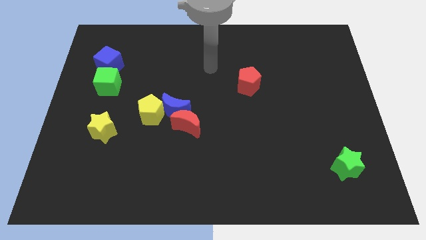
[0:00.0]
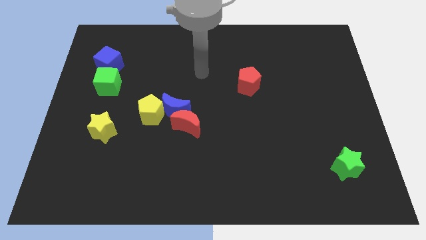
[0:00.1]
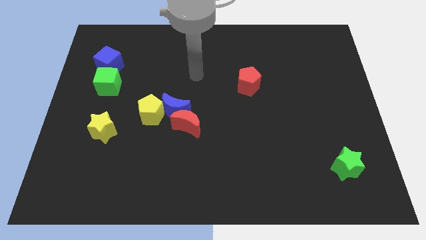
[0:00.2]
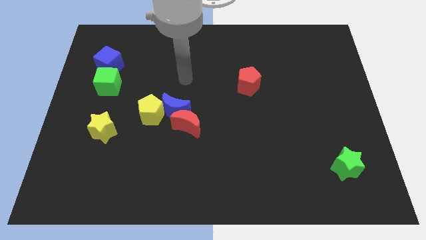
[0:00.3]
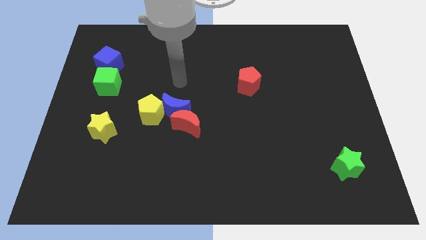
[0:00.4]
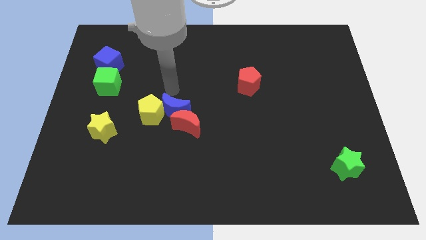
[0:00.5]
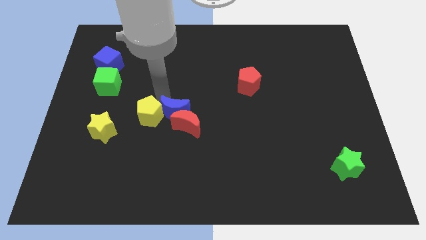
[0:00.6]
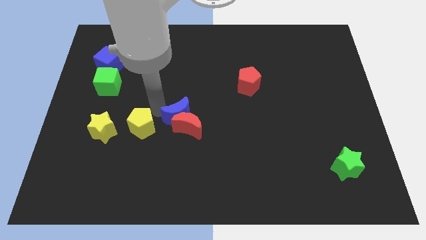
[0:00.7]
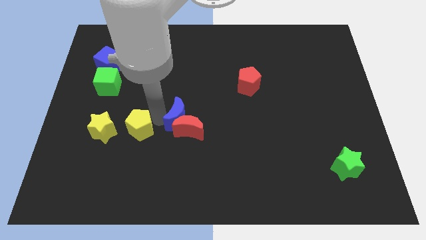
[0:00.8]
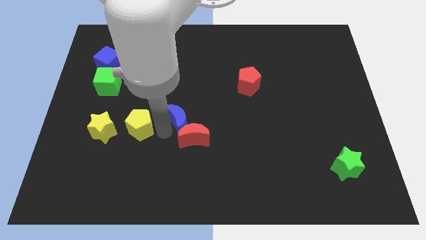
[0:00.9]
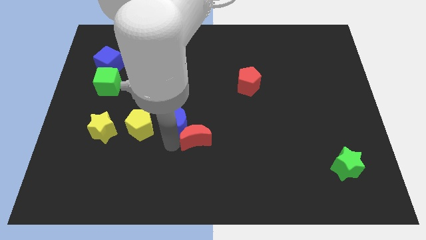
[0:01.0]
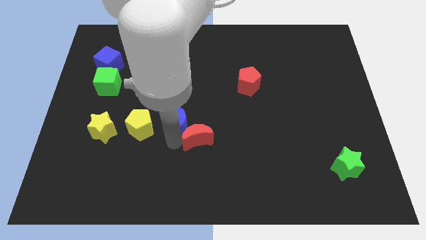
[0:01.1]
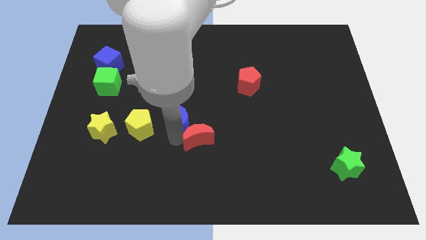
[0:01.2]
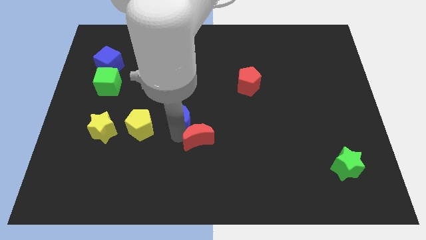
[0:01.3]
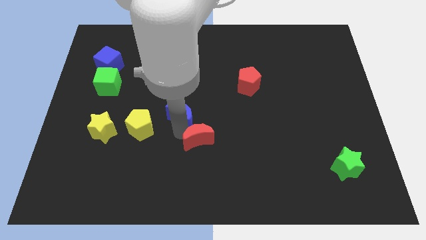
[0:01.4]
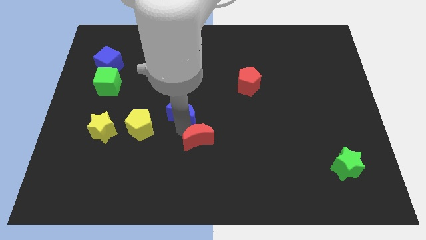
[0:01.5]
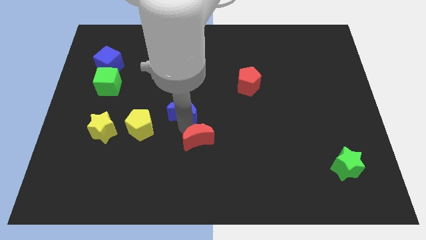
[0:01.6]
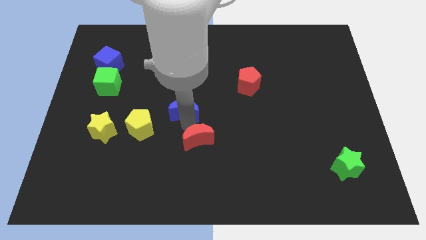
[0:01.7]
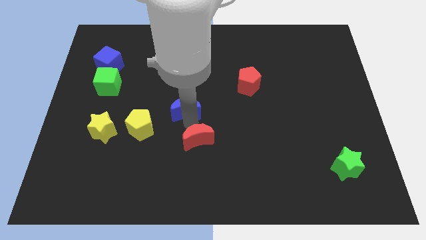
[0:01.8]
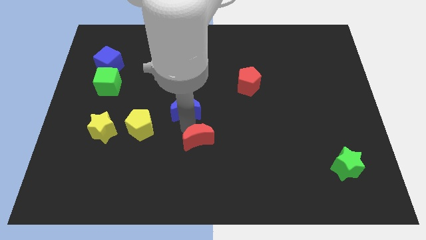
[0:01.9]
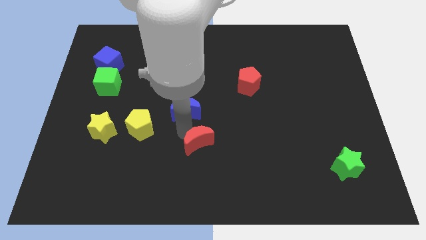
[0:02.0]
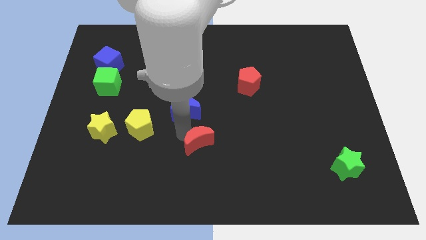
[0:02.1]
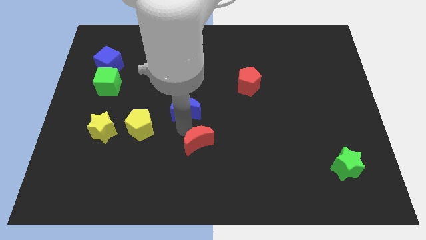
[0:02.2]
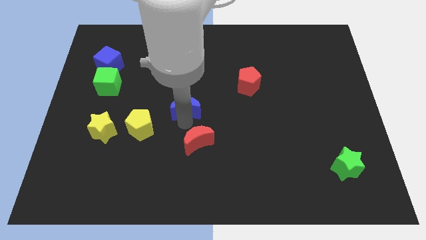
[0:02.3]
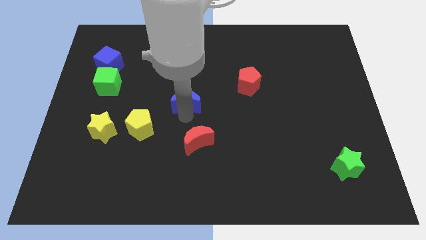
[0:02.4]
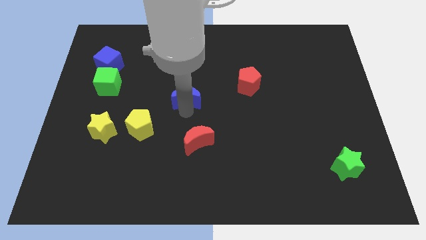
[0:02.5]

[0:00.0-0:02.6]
separate the blue moon from the red moon and yellow pentagon

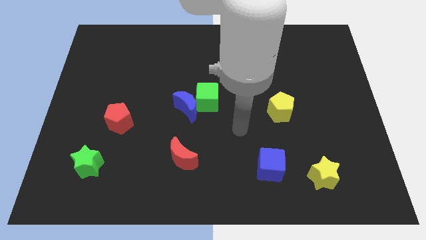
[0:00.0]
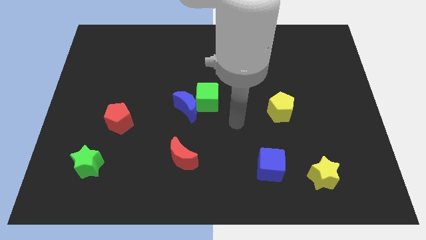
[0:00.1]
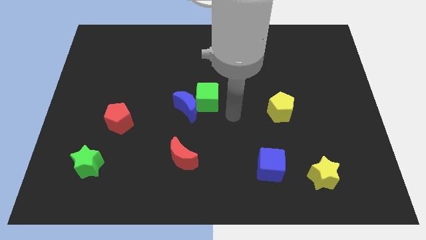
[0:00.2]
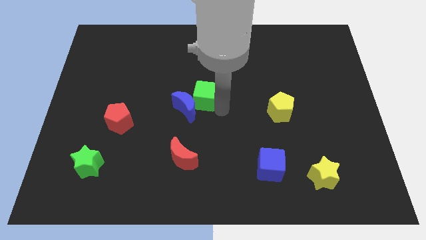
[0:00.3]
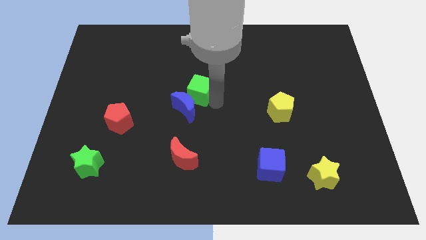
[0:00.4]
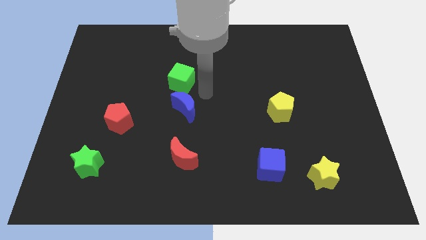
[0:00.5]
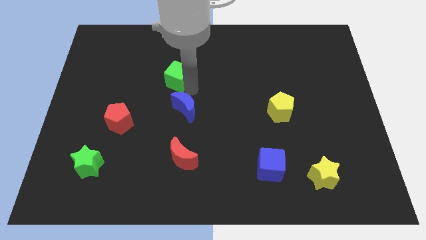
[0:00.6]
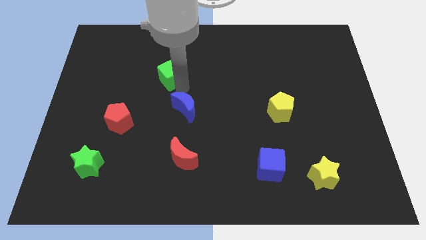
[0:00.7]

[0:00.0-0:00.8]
separate the blue moon from the green cube

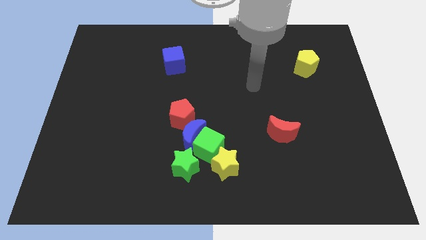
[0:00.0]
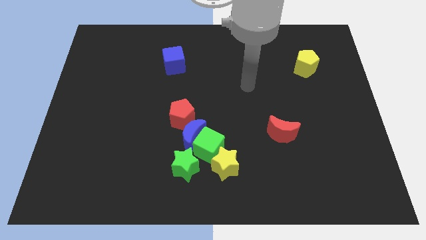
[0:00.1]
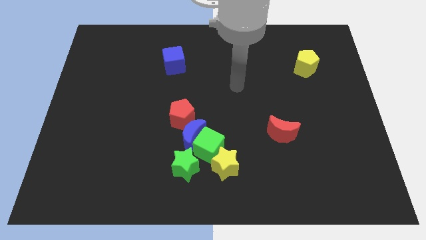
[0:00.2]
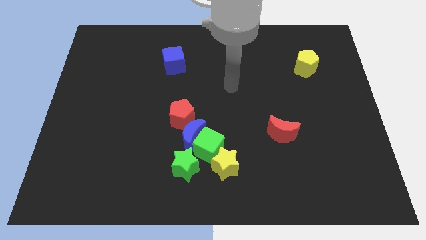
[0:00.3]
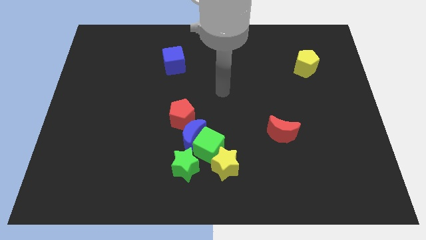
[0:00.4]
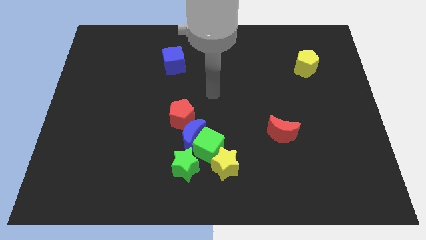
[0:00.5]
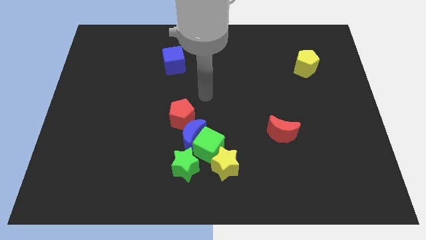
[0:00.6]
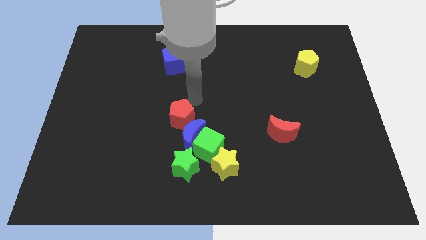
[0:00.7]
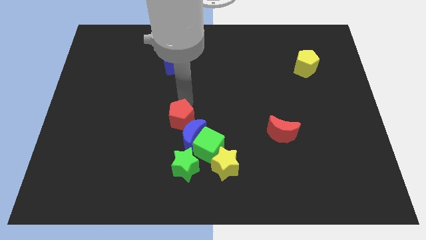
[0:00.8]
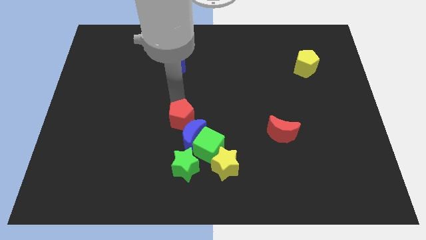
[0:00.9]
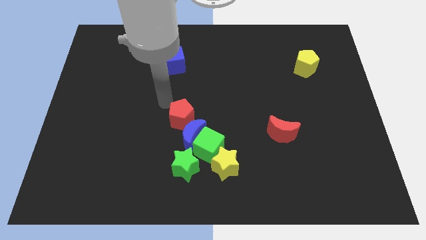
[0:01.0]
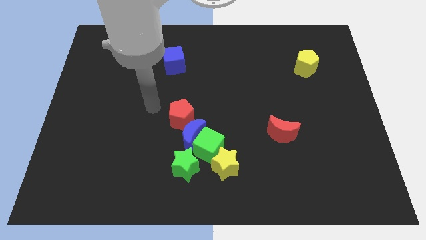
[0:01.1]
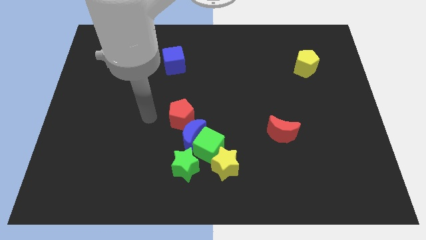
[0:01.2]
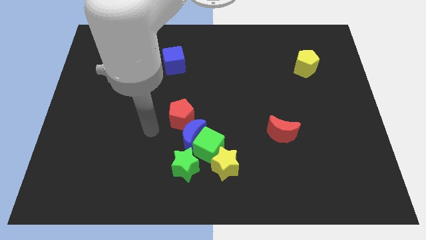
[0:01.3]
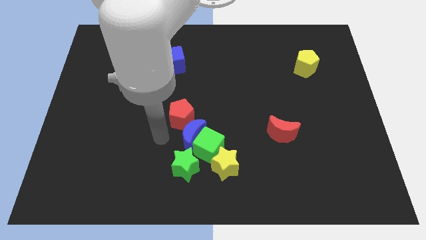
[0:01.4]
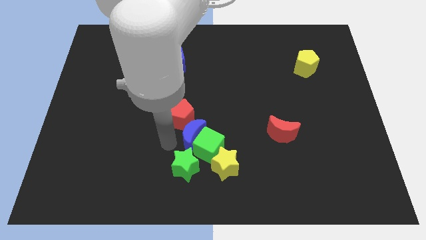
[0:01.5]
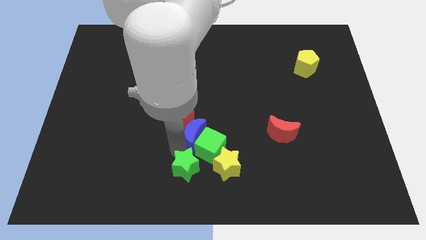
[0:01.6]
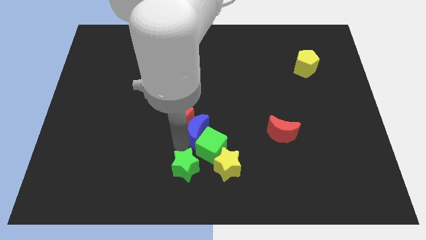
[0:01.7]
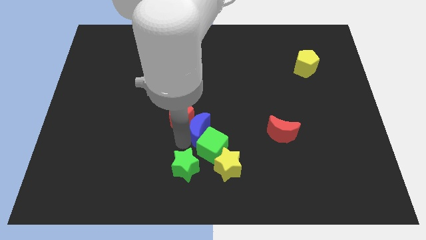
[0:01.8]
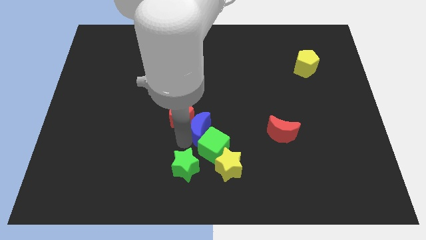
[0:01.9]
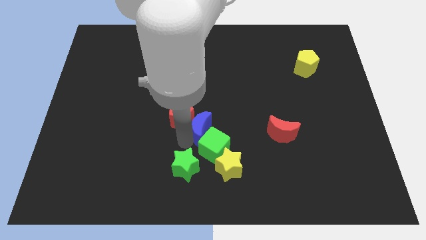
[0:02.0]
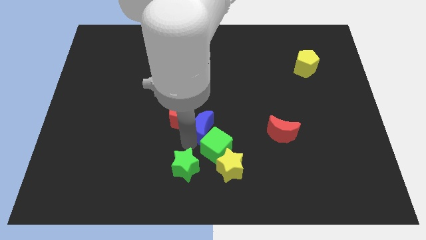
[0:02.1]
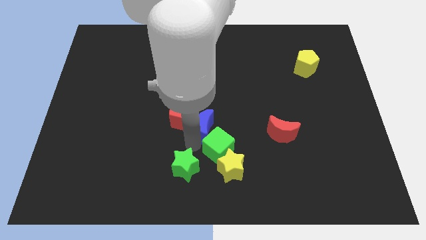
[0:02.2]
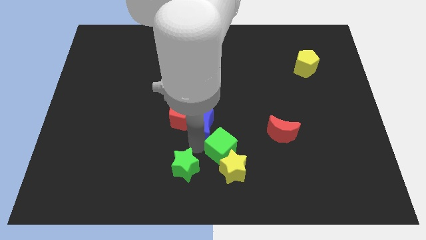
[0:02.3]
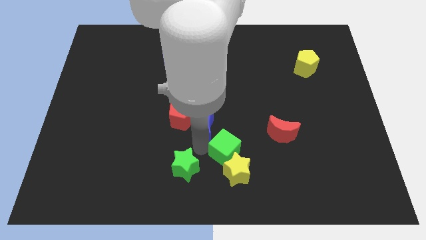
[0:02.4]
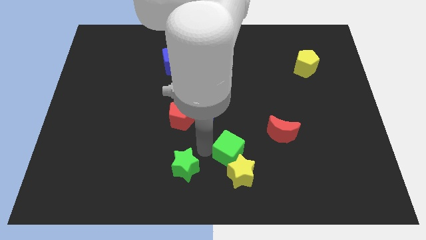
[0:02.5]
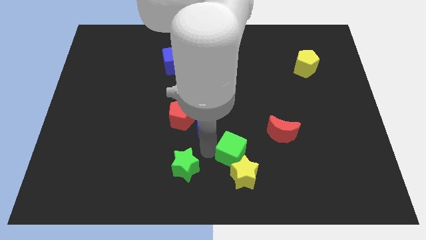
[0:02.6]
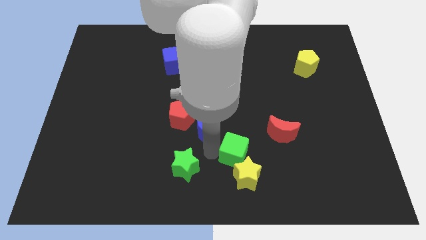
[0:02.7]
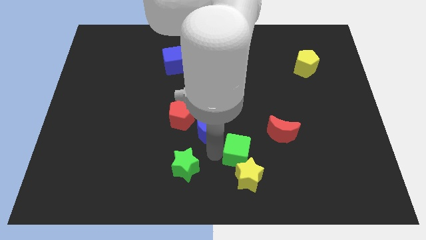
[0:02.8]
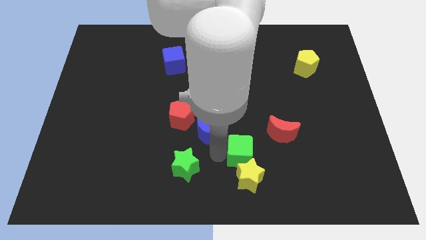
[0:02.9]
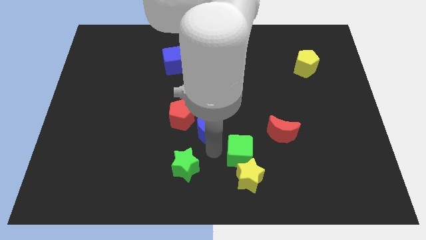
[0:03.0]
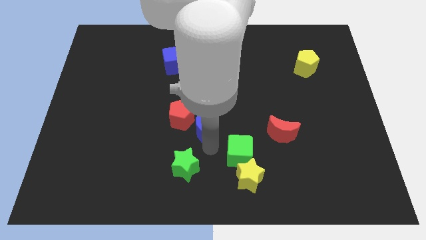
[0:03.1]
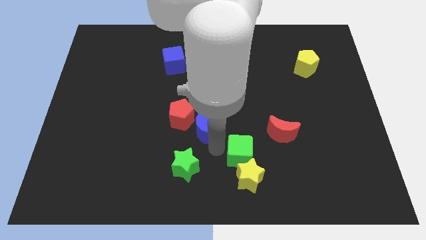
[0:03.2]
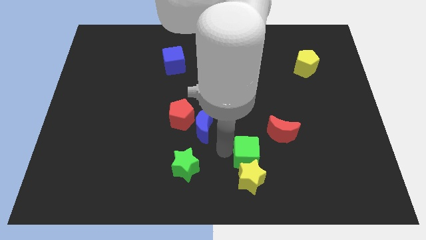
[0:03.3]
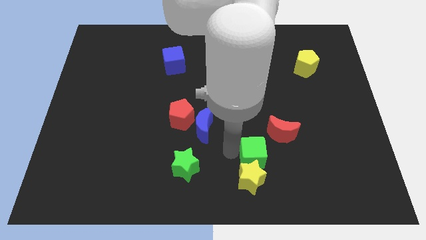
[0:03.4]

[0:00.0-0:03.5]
separate the green cube from the group of blocks

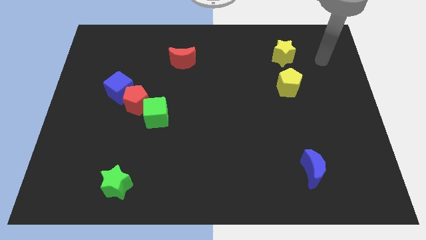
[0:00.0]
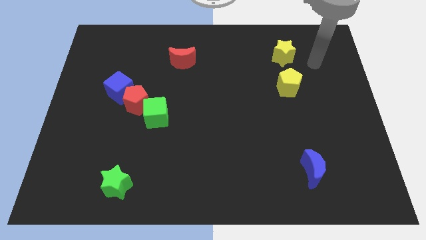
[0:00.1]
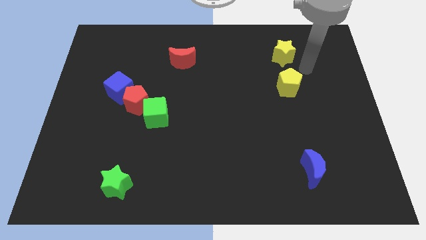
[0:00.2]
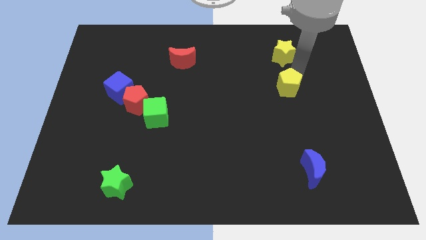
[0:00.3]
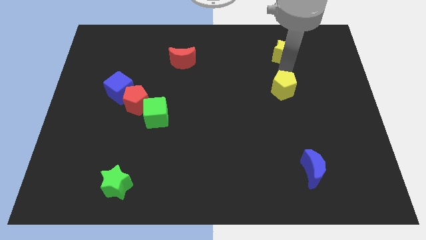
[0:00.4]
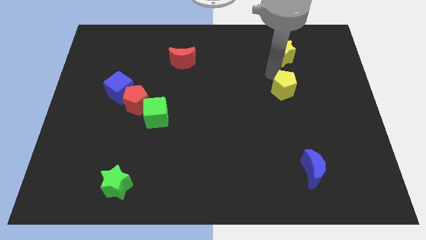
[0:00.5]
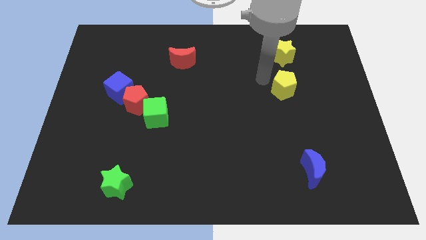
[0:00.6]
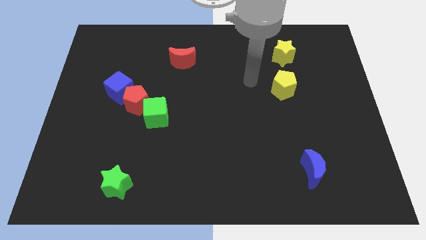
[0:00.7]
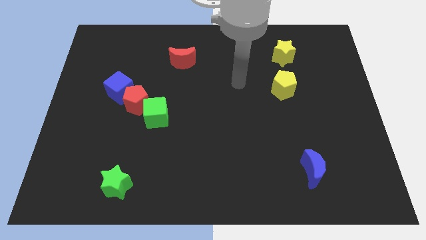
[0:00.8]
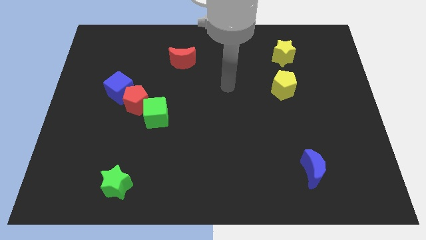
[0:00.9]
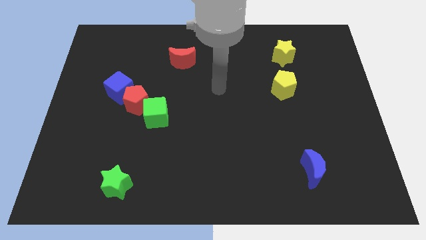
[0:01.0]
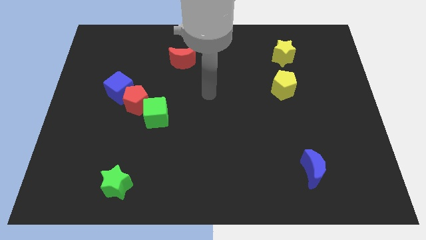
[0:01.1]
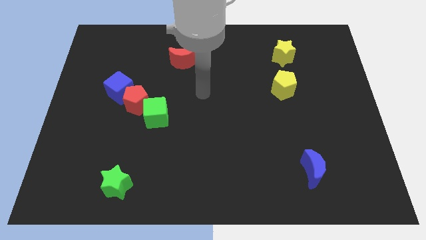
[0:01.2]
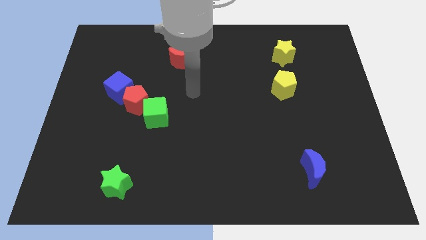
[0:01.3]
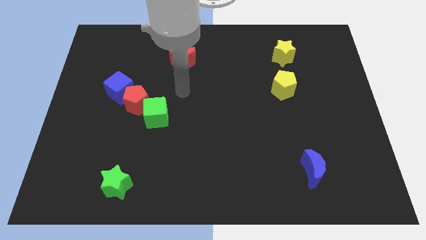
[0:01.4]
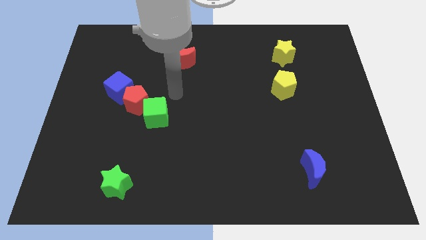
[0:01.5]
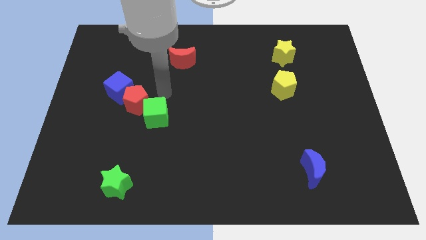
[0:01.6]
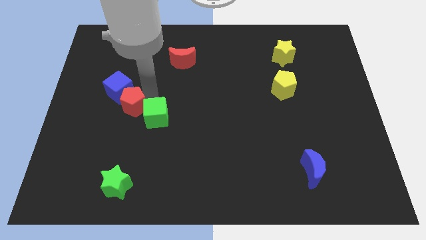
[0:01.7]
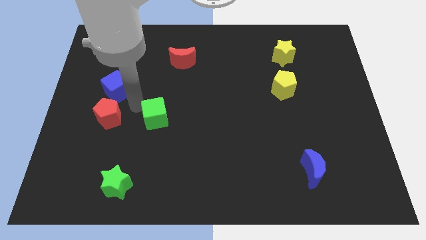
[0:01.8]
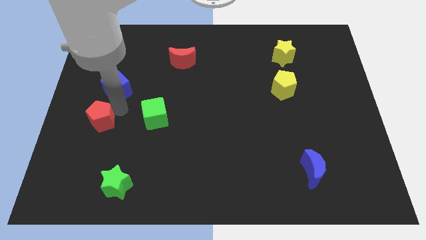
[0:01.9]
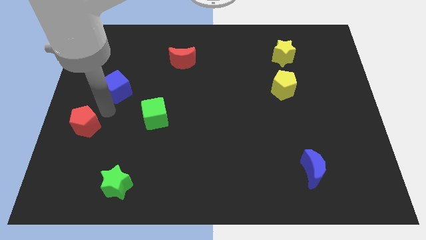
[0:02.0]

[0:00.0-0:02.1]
pull the blue cube apart from the red pentagon

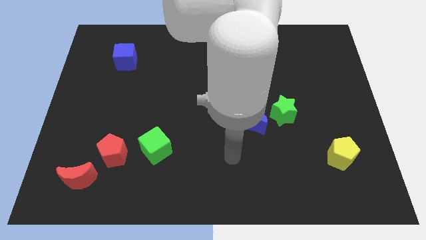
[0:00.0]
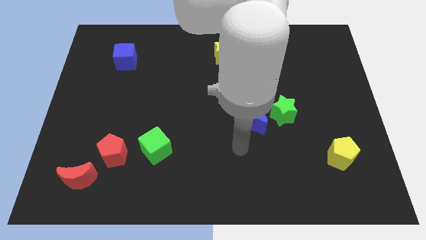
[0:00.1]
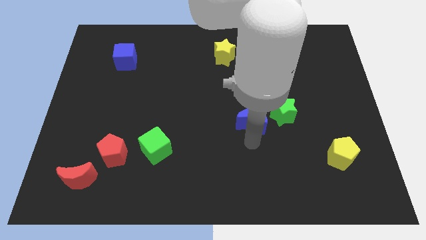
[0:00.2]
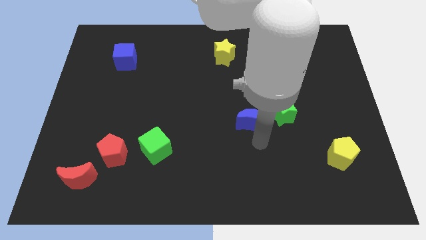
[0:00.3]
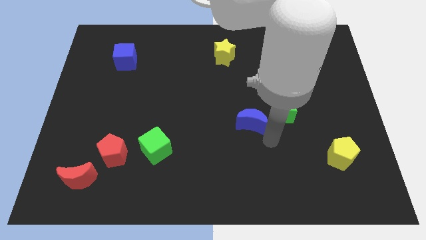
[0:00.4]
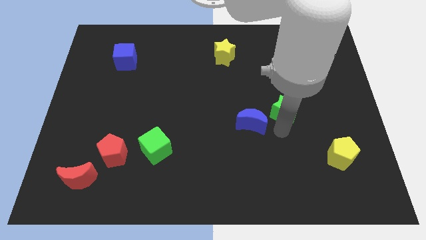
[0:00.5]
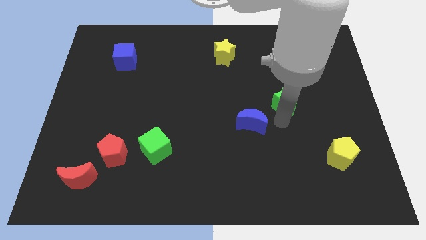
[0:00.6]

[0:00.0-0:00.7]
move the blue moon away from the green star
